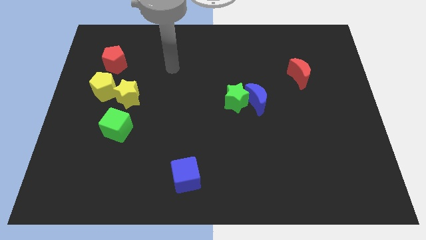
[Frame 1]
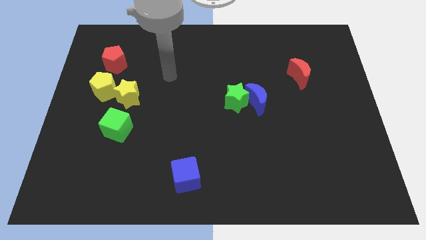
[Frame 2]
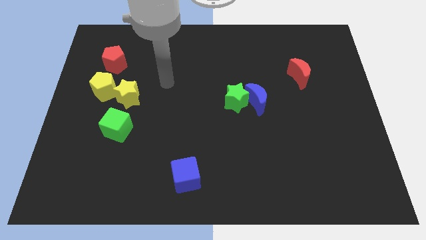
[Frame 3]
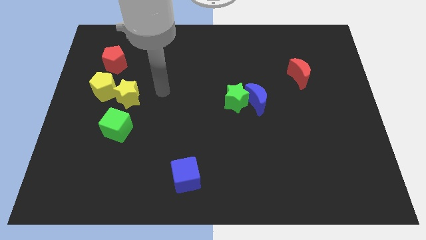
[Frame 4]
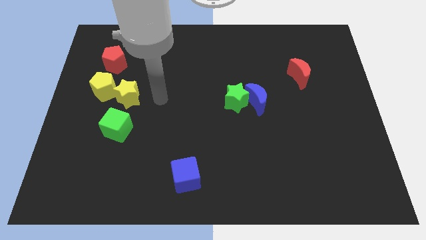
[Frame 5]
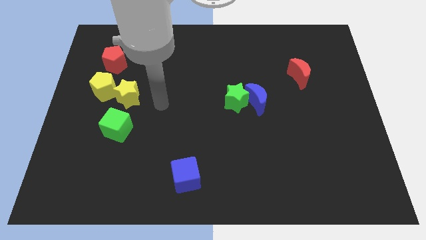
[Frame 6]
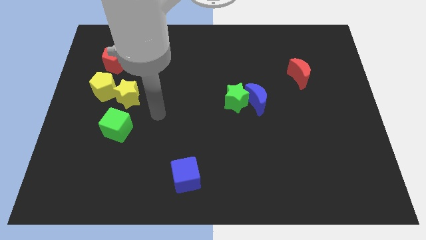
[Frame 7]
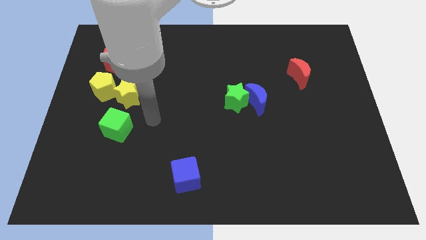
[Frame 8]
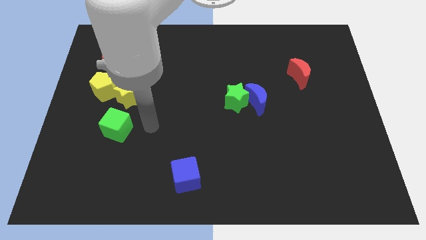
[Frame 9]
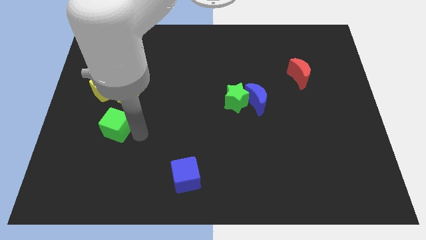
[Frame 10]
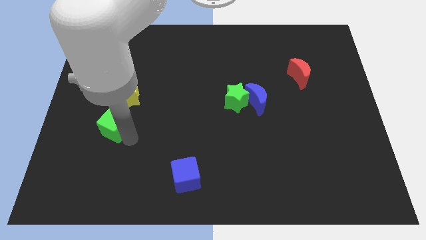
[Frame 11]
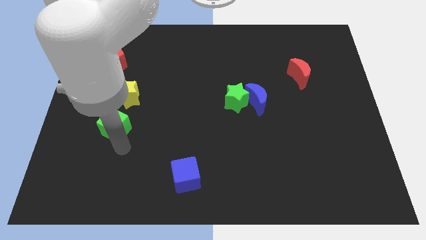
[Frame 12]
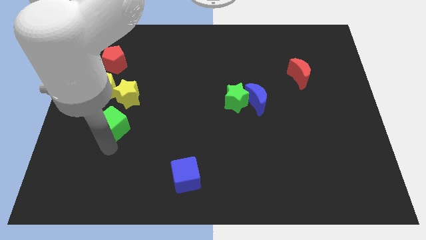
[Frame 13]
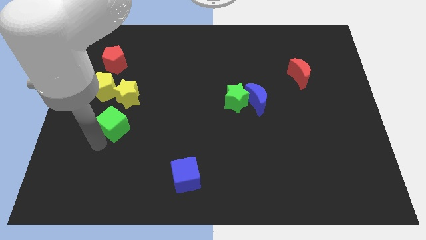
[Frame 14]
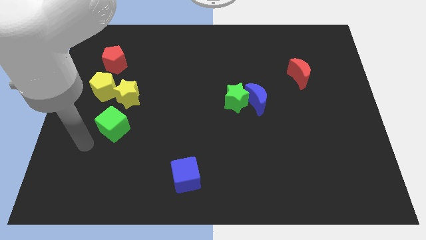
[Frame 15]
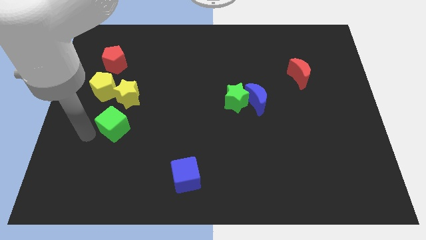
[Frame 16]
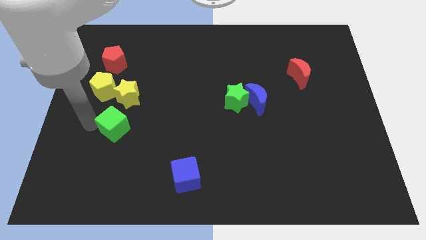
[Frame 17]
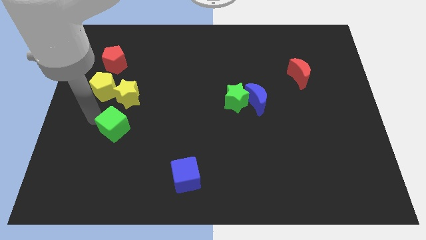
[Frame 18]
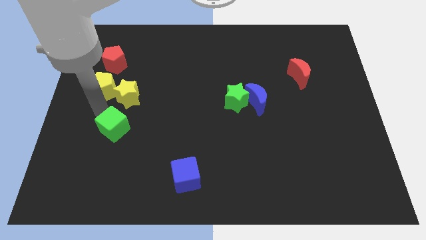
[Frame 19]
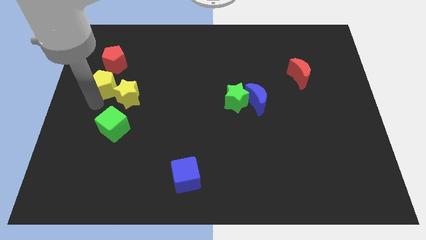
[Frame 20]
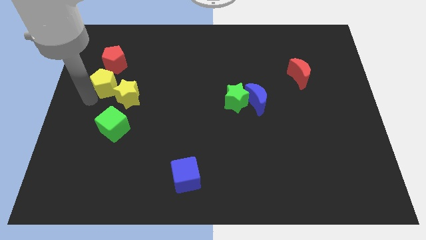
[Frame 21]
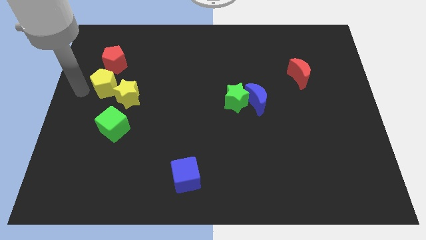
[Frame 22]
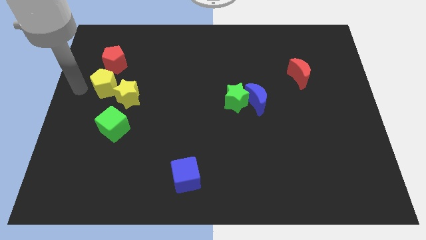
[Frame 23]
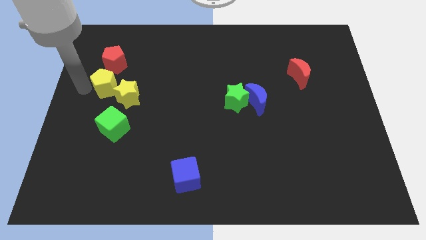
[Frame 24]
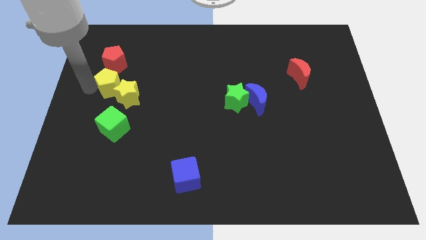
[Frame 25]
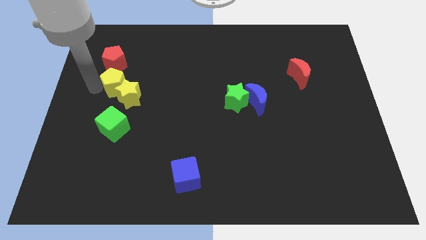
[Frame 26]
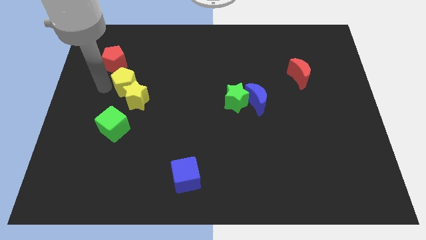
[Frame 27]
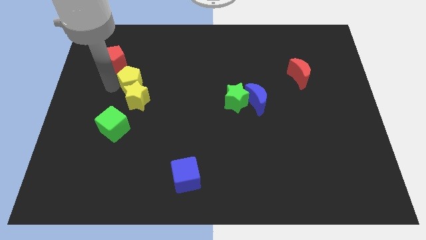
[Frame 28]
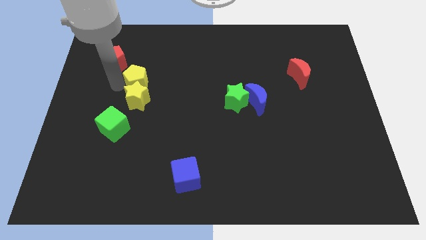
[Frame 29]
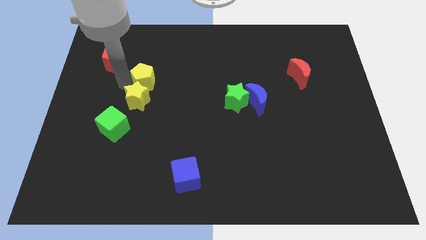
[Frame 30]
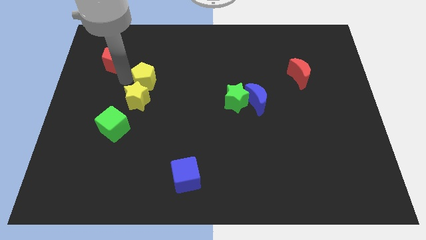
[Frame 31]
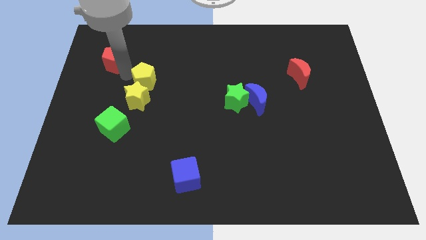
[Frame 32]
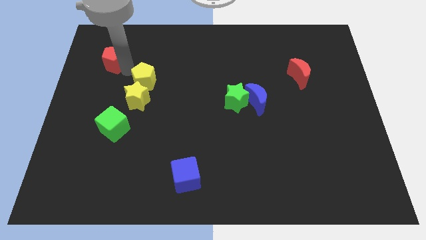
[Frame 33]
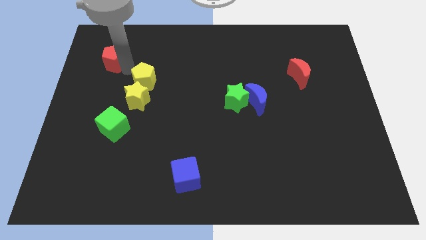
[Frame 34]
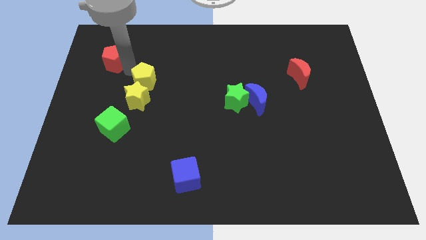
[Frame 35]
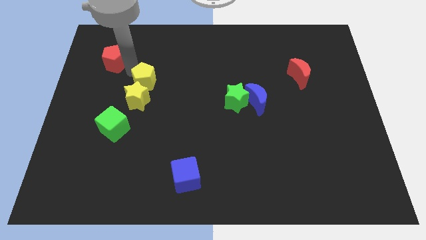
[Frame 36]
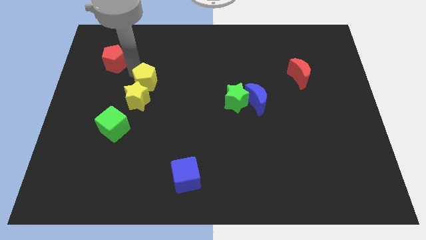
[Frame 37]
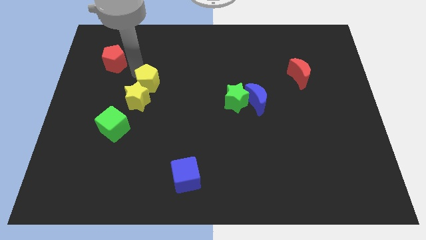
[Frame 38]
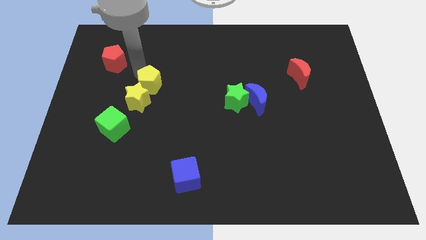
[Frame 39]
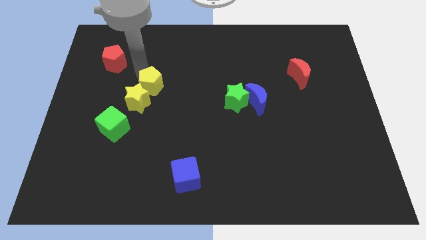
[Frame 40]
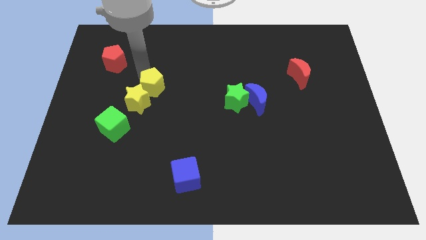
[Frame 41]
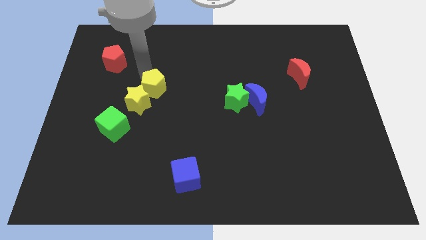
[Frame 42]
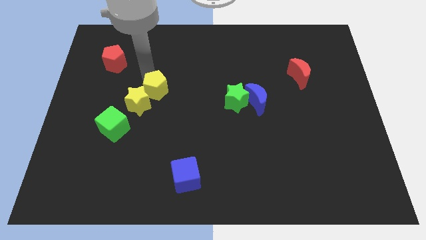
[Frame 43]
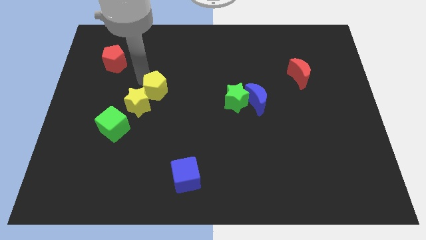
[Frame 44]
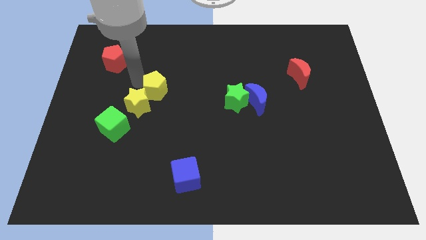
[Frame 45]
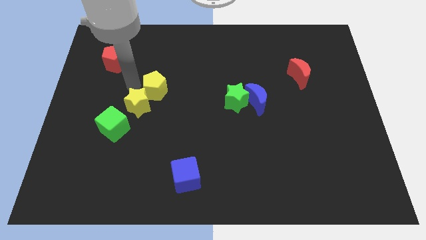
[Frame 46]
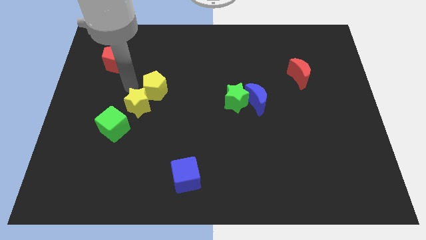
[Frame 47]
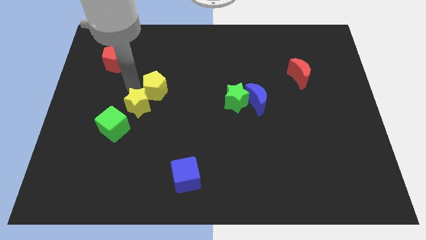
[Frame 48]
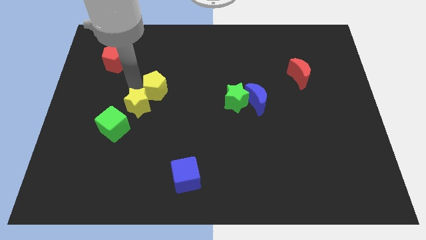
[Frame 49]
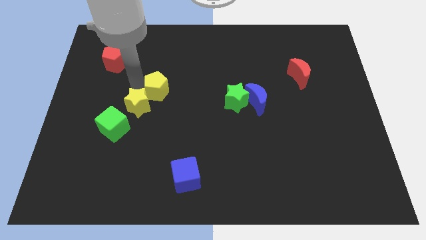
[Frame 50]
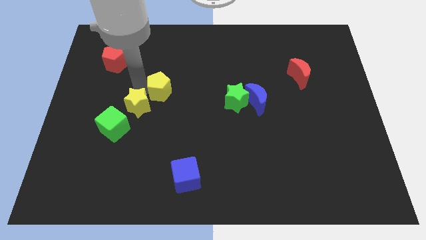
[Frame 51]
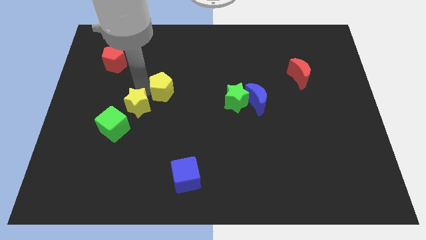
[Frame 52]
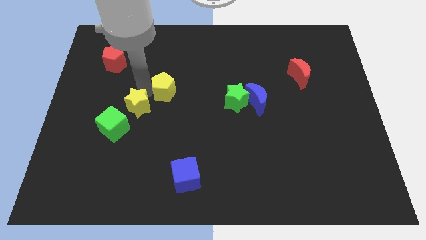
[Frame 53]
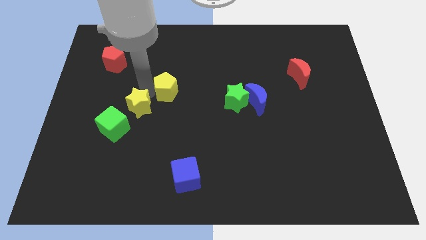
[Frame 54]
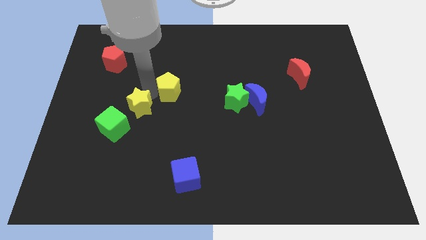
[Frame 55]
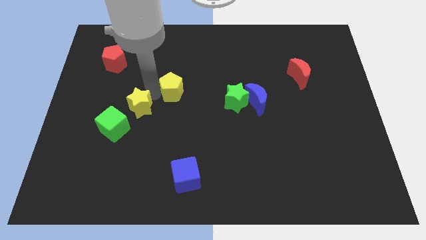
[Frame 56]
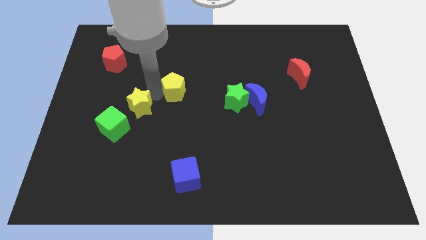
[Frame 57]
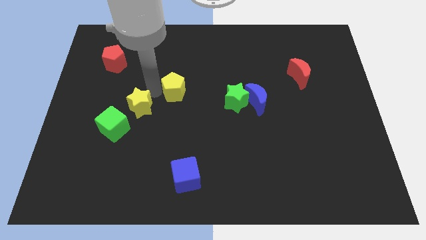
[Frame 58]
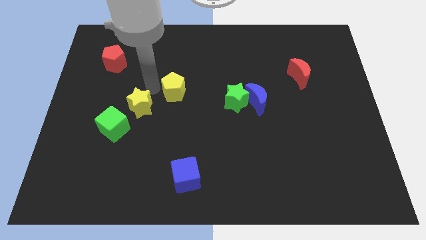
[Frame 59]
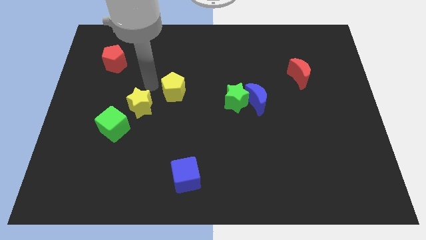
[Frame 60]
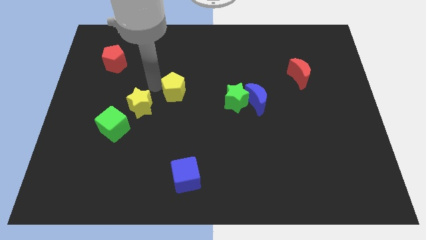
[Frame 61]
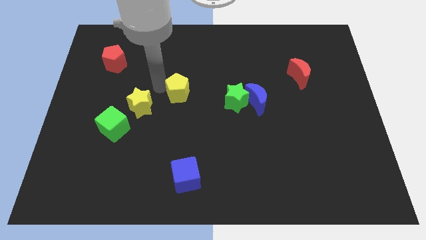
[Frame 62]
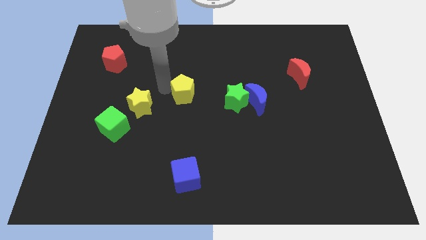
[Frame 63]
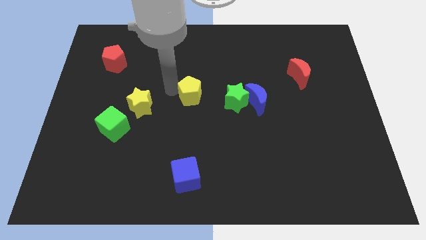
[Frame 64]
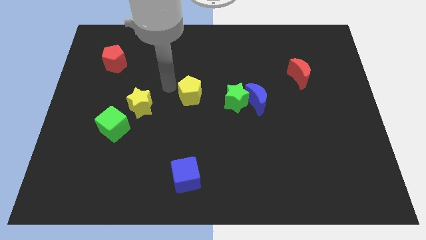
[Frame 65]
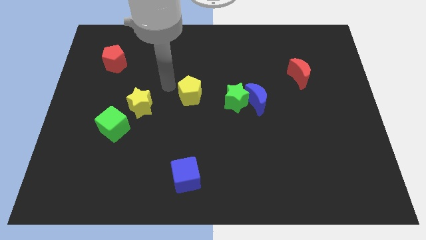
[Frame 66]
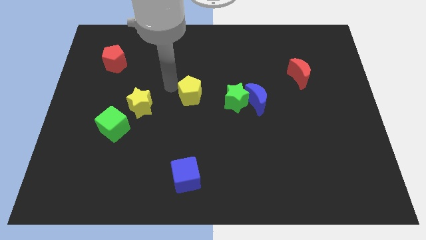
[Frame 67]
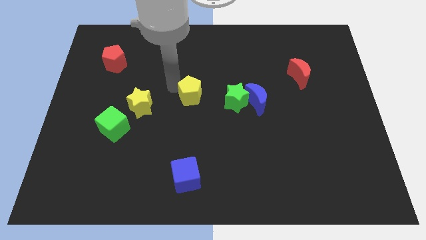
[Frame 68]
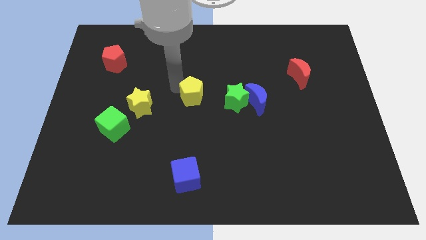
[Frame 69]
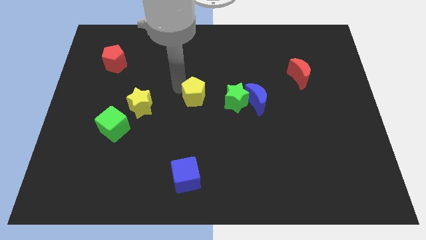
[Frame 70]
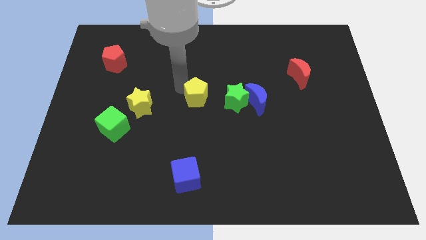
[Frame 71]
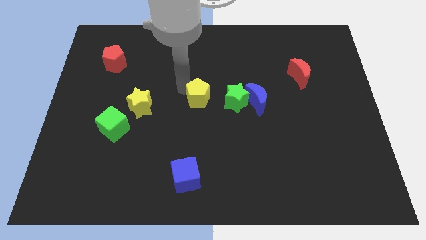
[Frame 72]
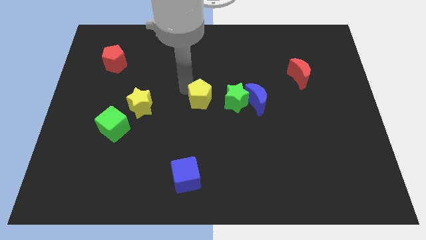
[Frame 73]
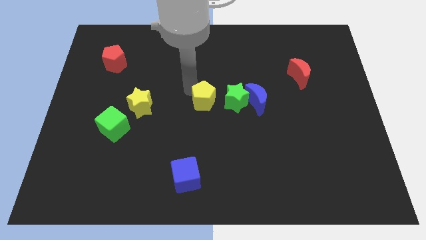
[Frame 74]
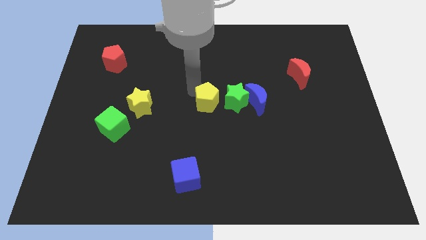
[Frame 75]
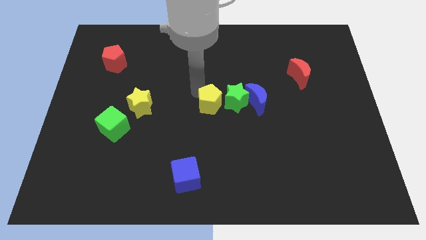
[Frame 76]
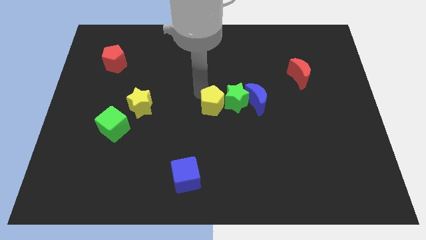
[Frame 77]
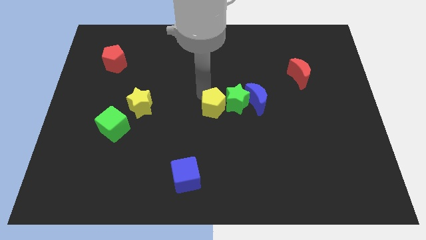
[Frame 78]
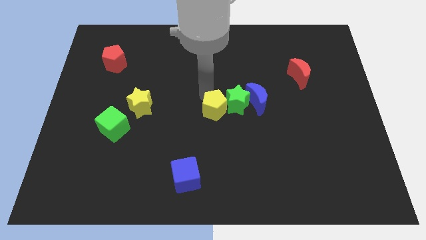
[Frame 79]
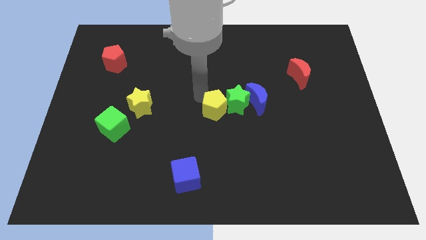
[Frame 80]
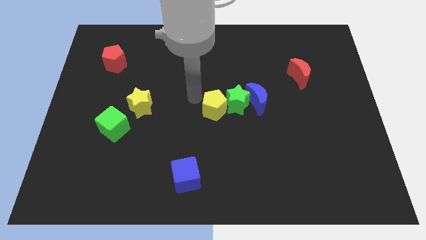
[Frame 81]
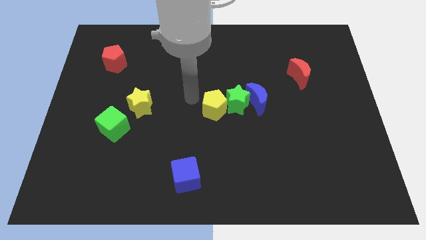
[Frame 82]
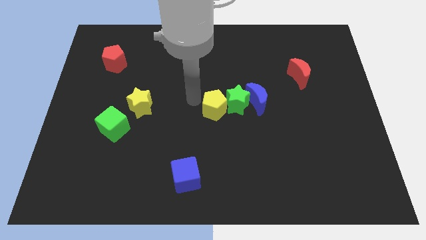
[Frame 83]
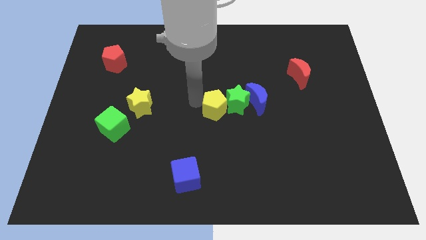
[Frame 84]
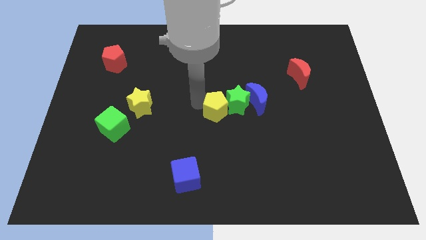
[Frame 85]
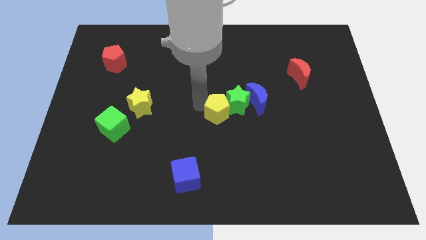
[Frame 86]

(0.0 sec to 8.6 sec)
push the yellow pentagon to the bottom left of the blue moon
